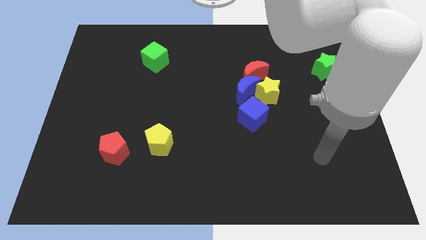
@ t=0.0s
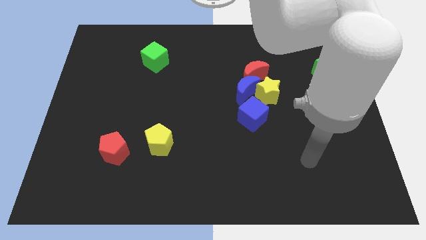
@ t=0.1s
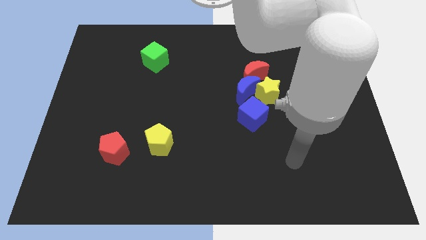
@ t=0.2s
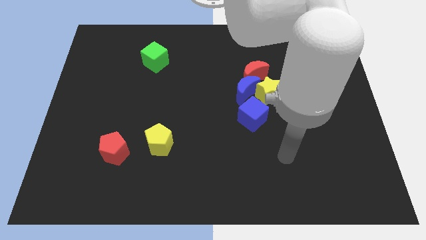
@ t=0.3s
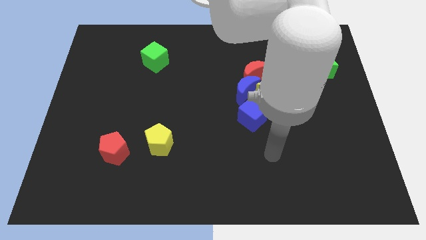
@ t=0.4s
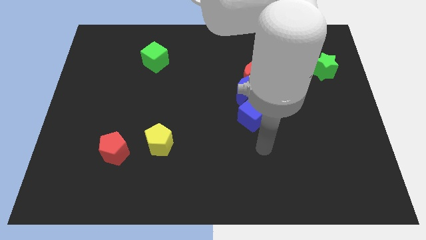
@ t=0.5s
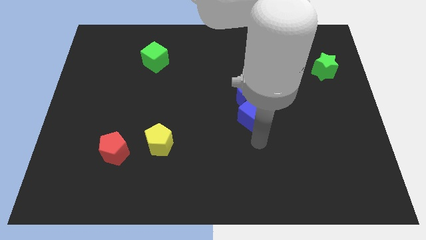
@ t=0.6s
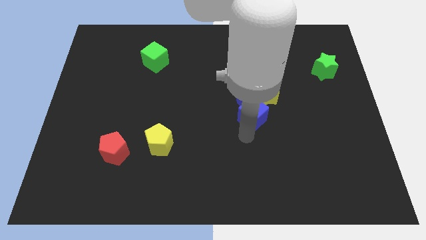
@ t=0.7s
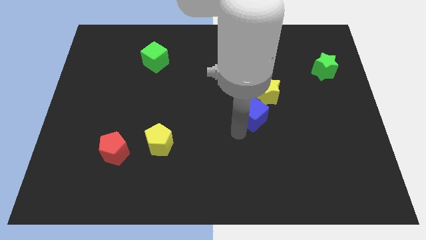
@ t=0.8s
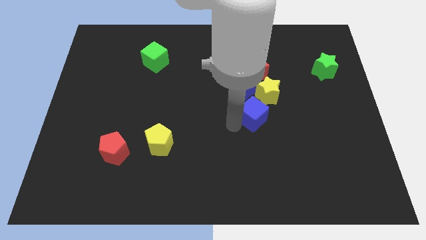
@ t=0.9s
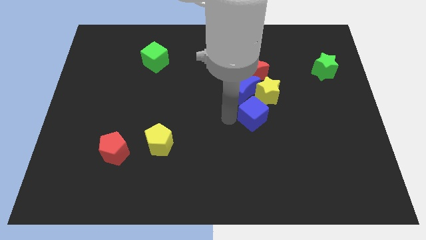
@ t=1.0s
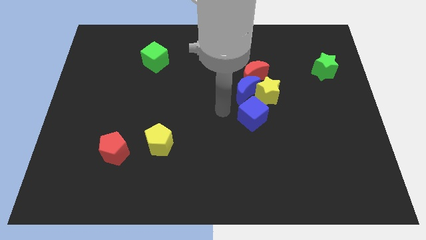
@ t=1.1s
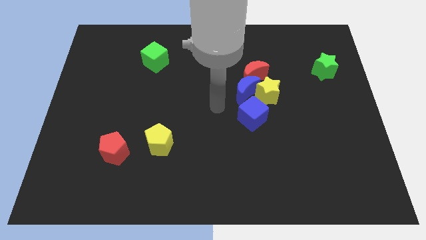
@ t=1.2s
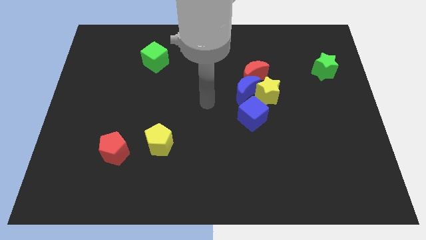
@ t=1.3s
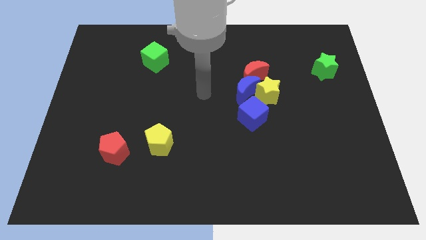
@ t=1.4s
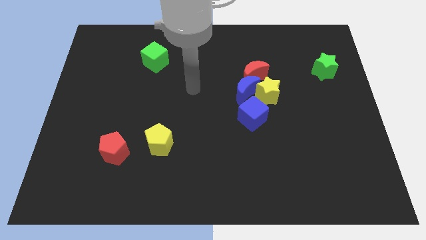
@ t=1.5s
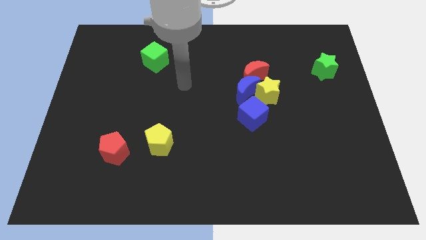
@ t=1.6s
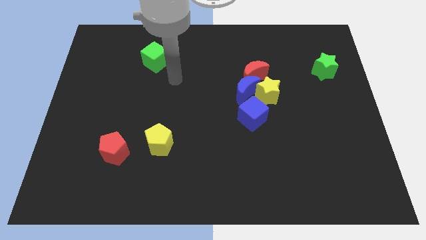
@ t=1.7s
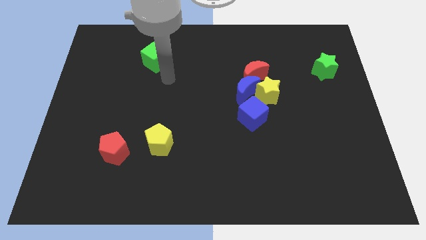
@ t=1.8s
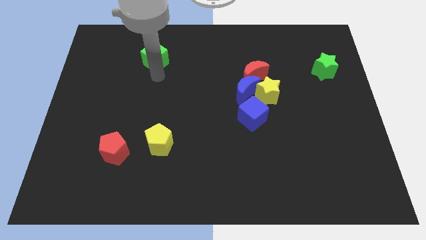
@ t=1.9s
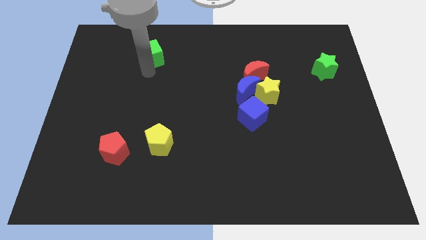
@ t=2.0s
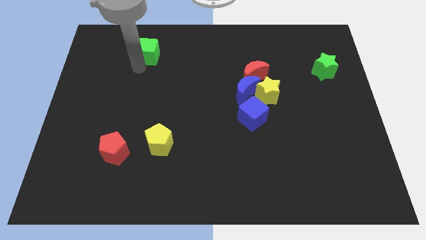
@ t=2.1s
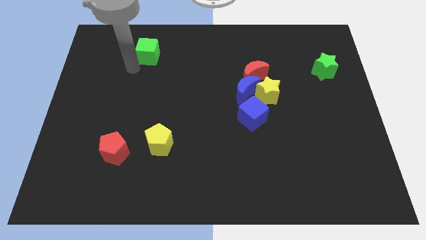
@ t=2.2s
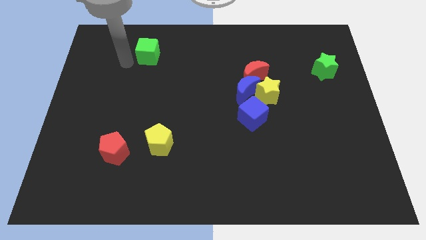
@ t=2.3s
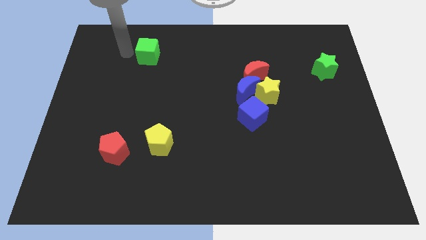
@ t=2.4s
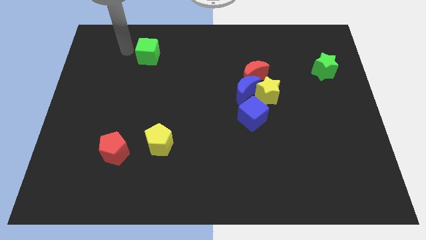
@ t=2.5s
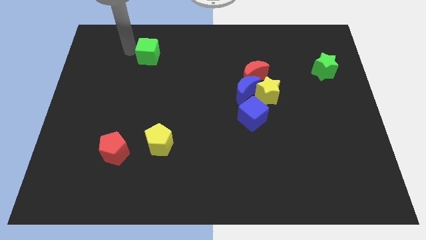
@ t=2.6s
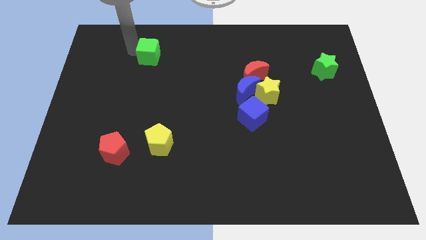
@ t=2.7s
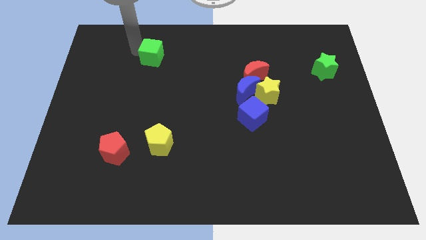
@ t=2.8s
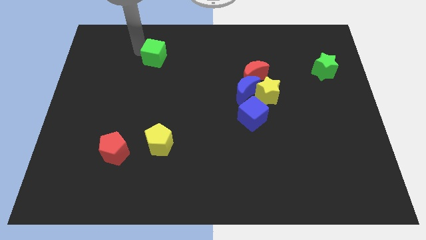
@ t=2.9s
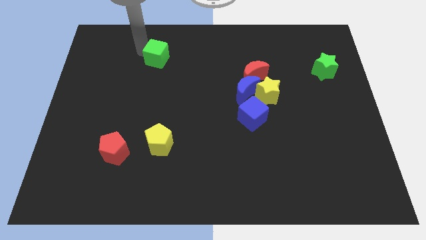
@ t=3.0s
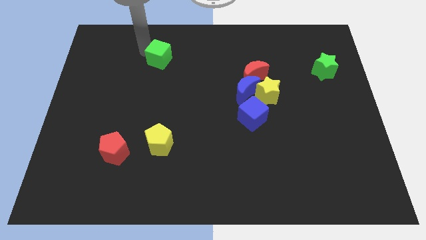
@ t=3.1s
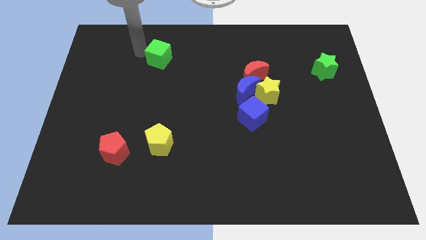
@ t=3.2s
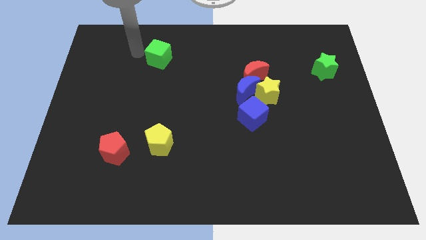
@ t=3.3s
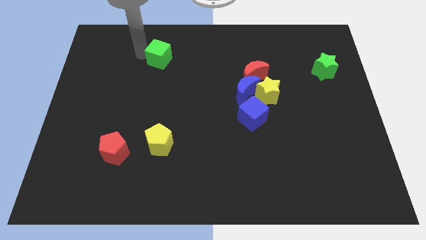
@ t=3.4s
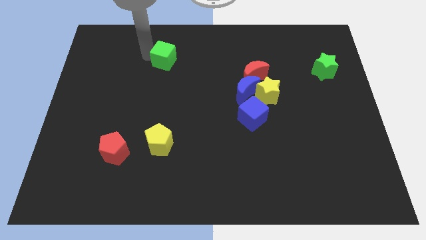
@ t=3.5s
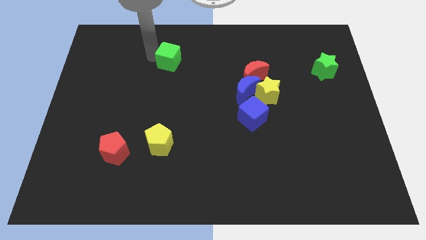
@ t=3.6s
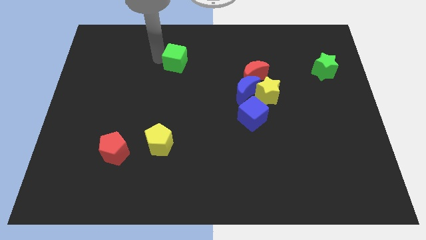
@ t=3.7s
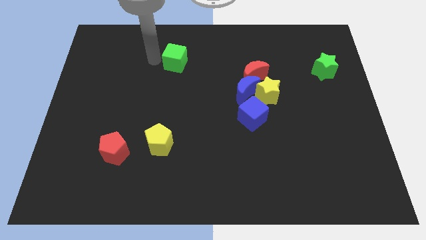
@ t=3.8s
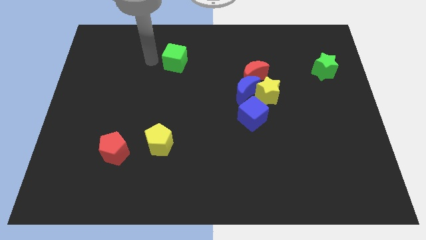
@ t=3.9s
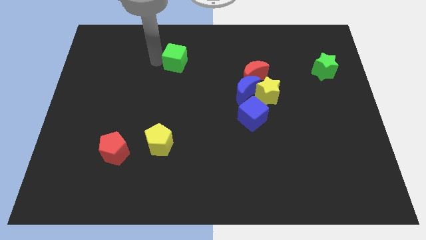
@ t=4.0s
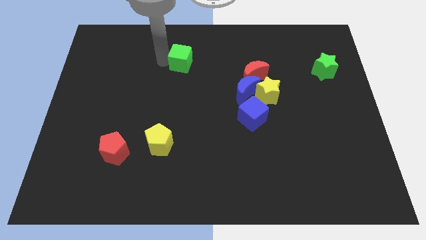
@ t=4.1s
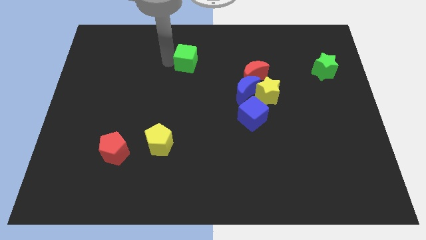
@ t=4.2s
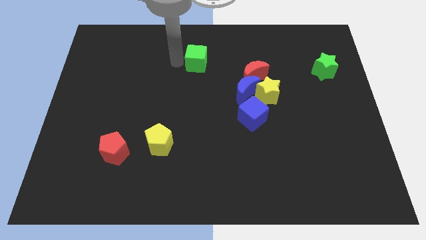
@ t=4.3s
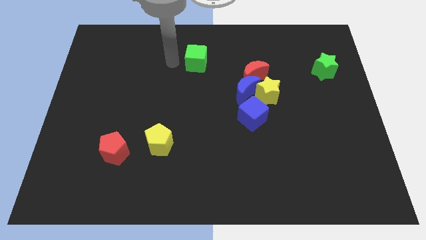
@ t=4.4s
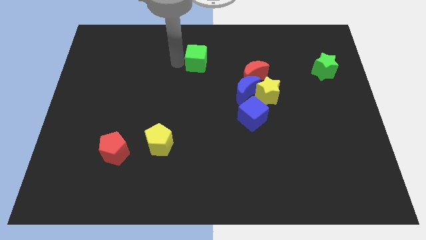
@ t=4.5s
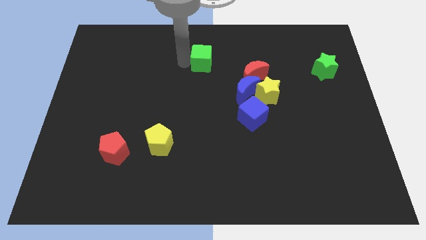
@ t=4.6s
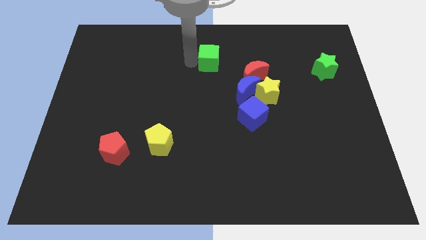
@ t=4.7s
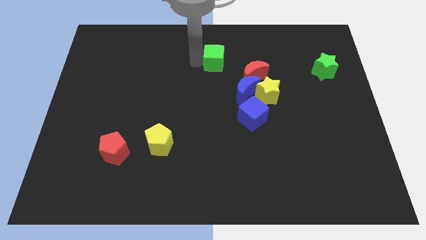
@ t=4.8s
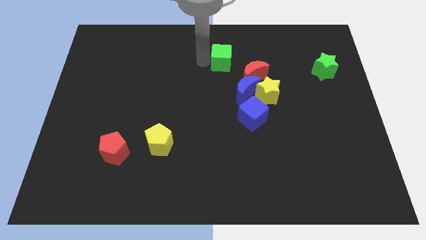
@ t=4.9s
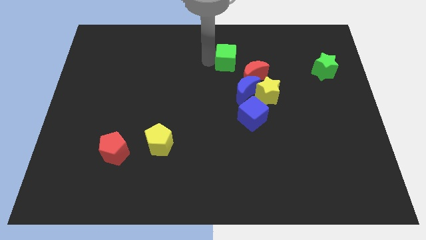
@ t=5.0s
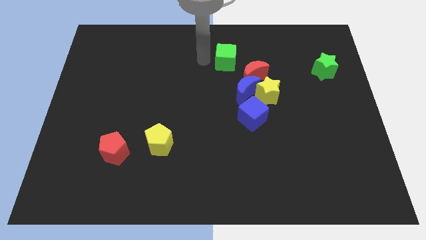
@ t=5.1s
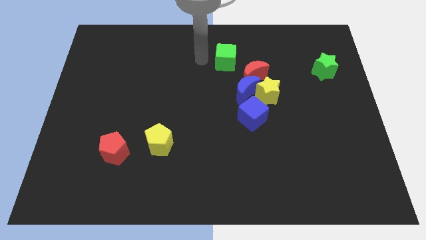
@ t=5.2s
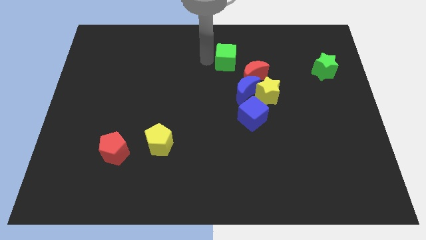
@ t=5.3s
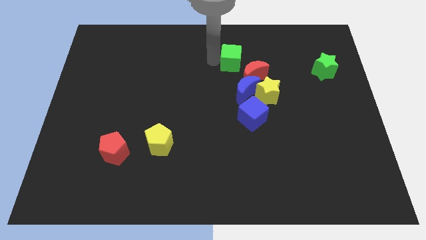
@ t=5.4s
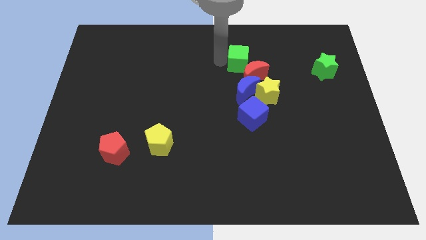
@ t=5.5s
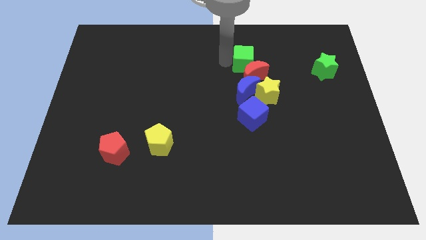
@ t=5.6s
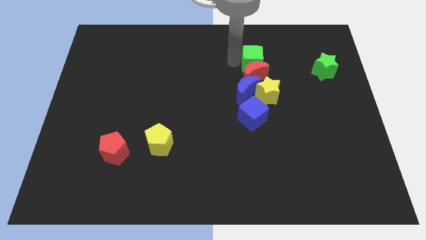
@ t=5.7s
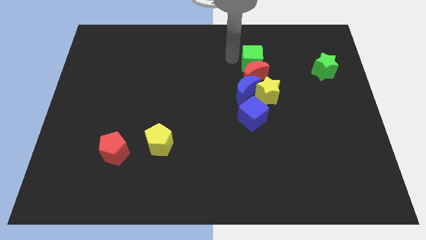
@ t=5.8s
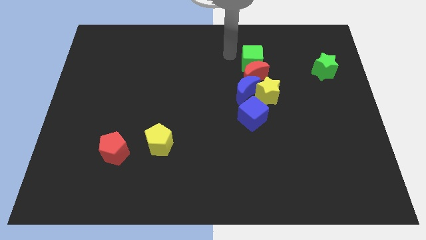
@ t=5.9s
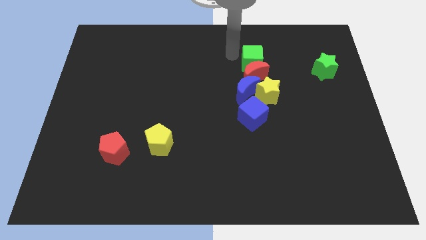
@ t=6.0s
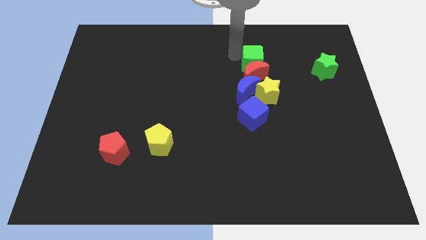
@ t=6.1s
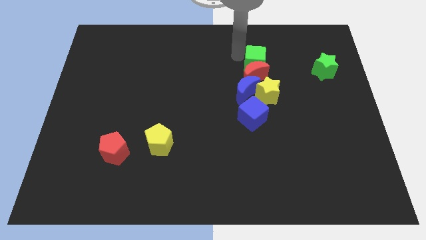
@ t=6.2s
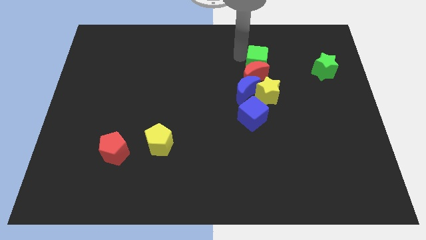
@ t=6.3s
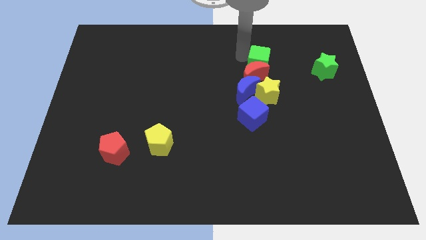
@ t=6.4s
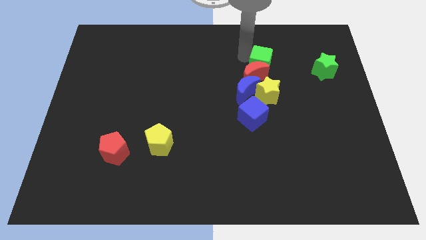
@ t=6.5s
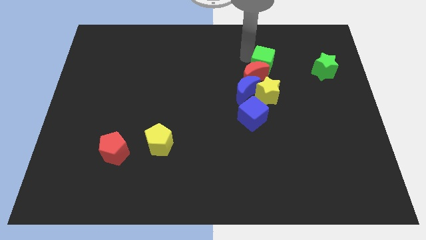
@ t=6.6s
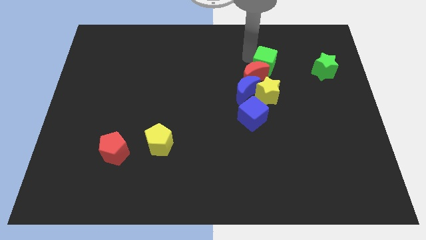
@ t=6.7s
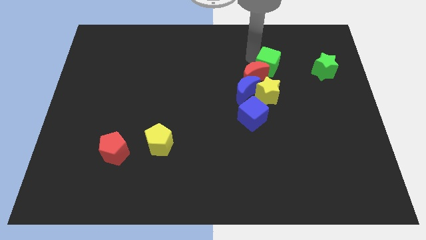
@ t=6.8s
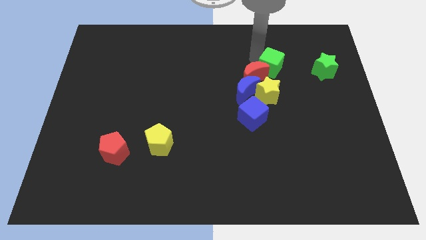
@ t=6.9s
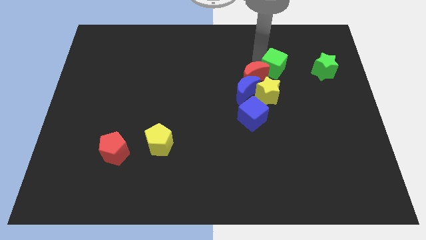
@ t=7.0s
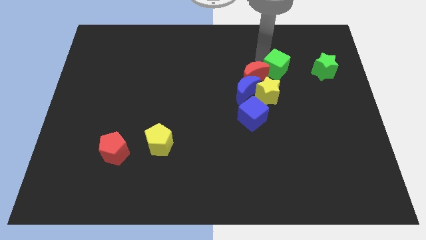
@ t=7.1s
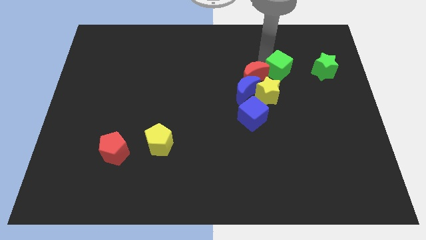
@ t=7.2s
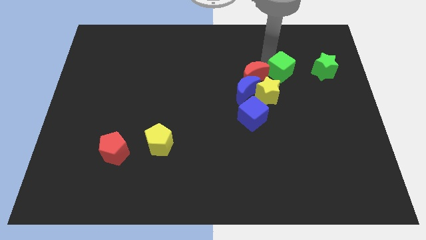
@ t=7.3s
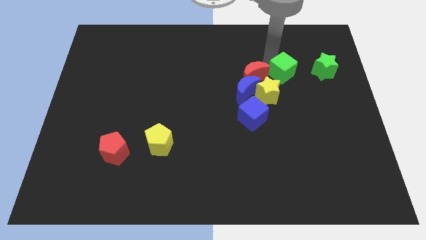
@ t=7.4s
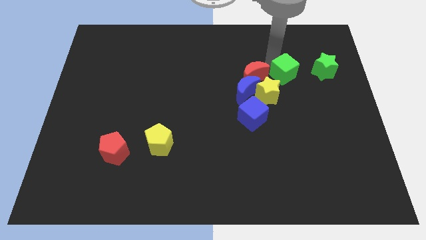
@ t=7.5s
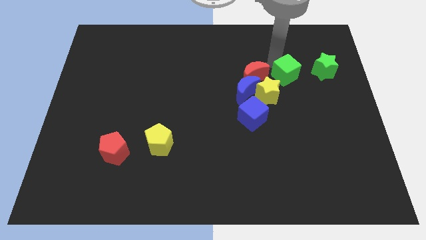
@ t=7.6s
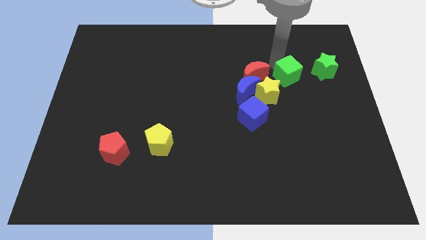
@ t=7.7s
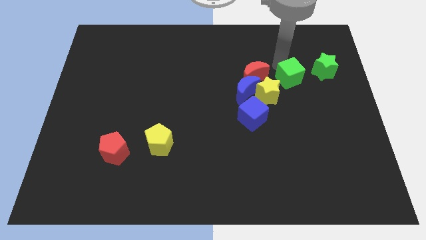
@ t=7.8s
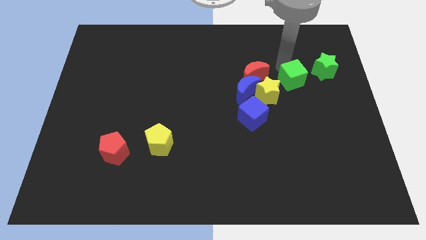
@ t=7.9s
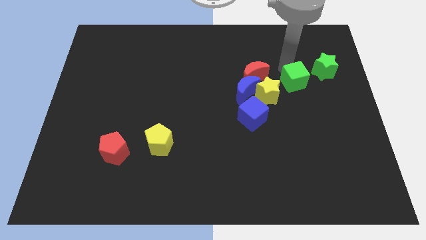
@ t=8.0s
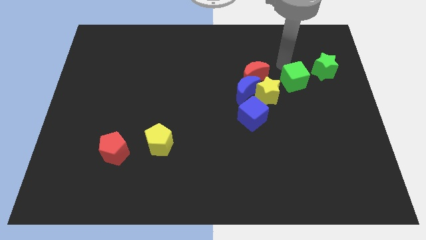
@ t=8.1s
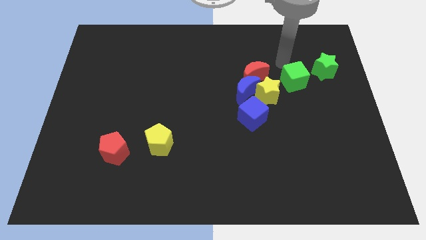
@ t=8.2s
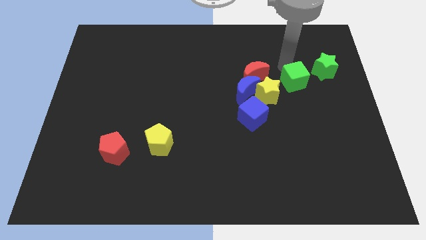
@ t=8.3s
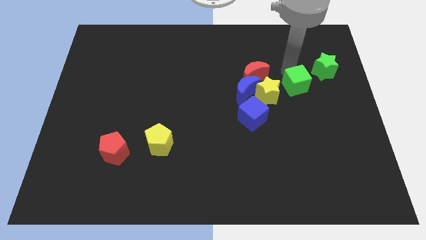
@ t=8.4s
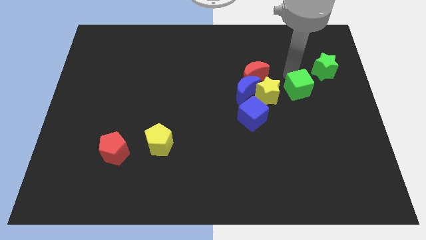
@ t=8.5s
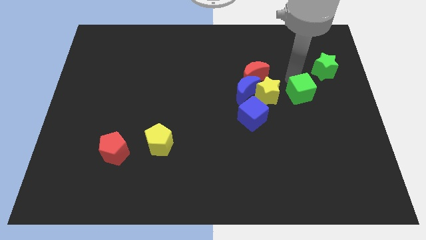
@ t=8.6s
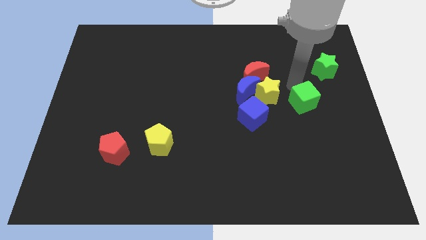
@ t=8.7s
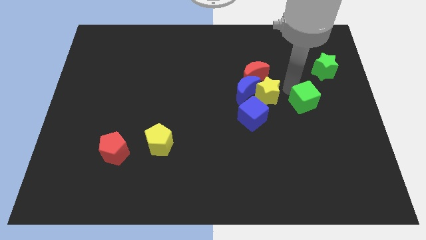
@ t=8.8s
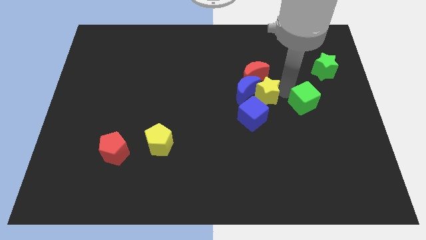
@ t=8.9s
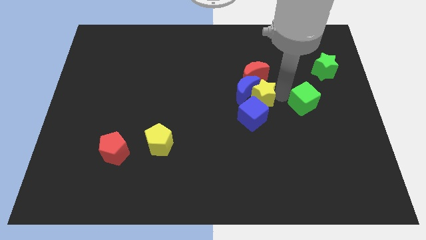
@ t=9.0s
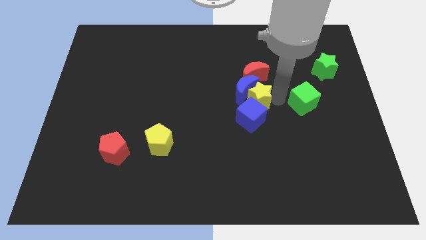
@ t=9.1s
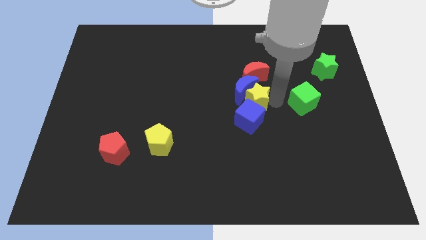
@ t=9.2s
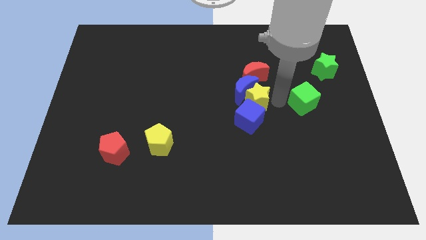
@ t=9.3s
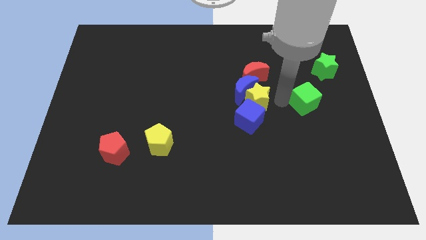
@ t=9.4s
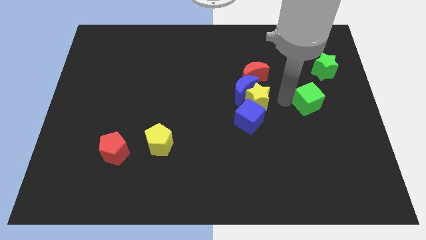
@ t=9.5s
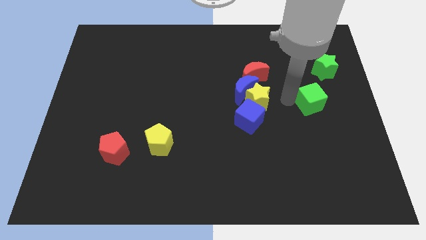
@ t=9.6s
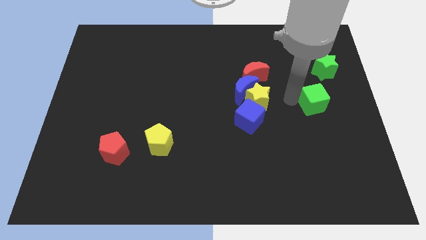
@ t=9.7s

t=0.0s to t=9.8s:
push the green cube to the bottom side of the green star
